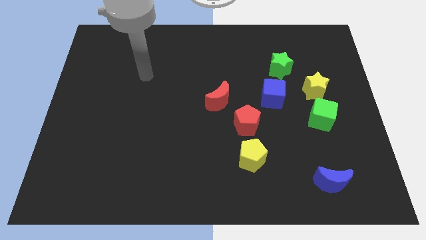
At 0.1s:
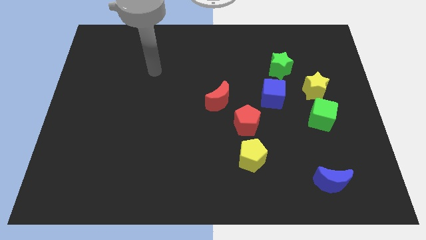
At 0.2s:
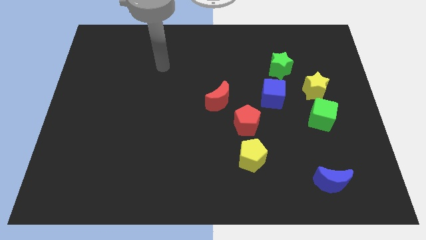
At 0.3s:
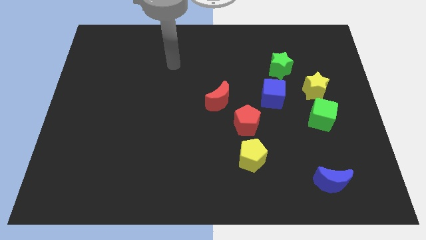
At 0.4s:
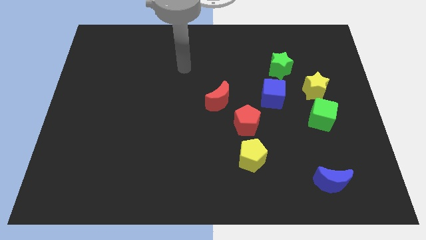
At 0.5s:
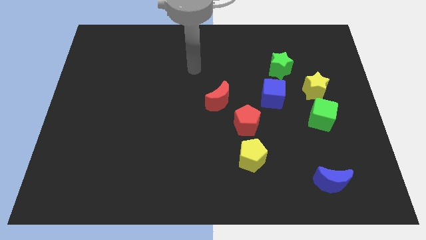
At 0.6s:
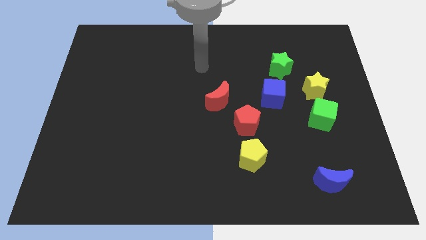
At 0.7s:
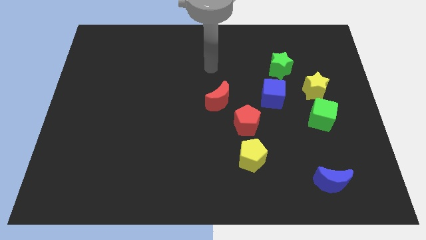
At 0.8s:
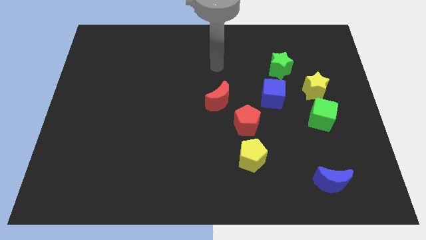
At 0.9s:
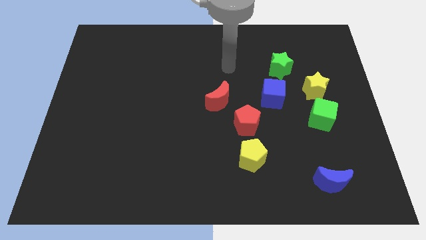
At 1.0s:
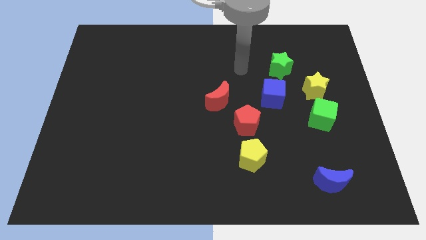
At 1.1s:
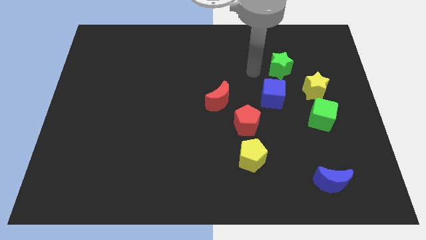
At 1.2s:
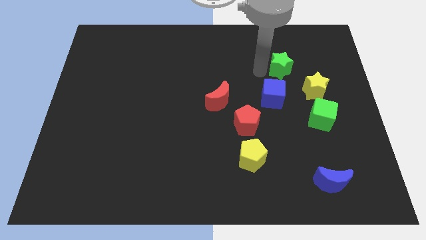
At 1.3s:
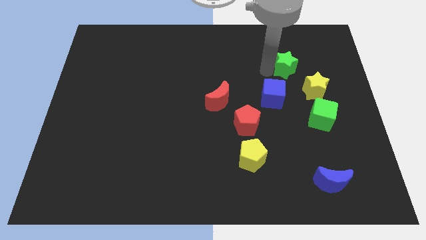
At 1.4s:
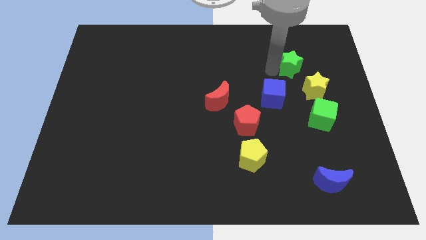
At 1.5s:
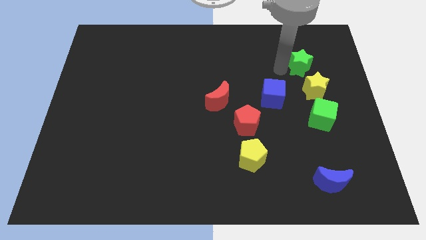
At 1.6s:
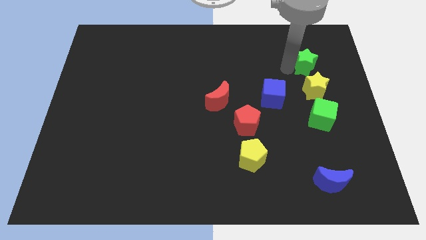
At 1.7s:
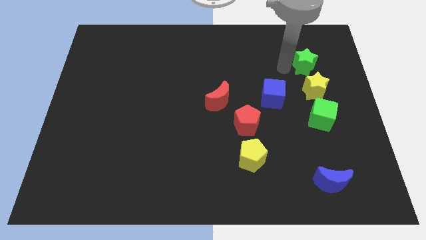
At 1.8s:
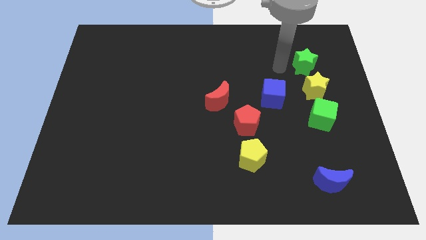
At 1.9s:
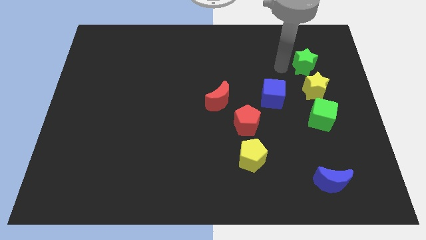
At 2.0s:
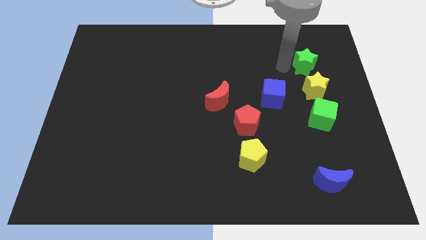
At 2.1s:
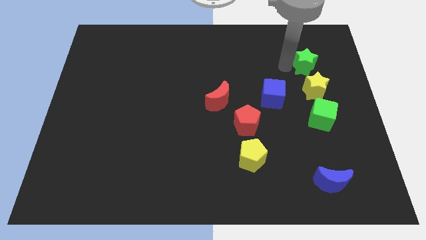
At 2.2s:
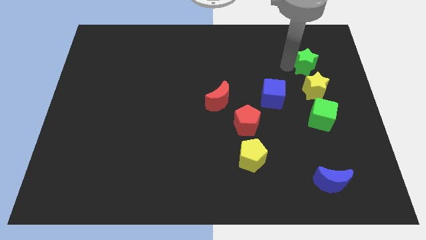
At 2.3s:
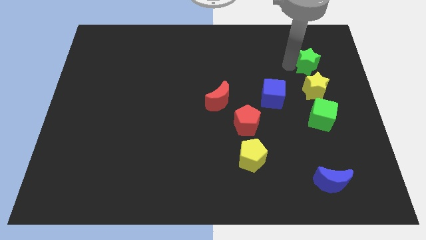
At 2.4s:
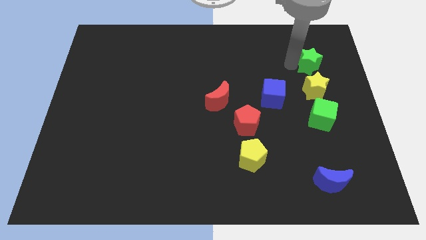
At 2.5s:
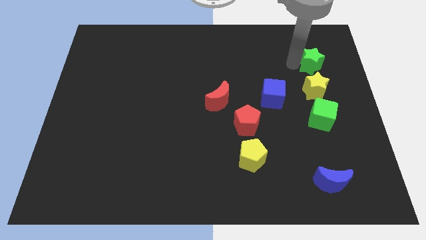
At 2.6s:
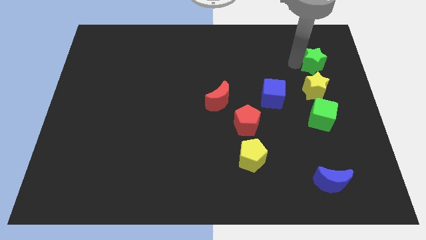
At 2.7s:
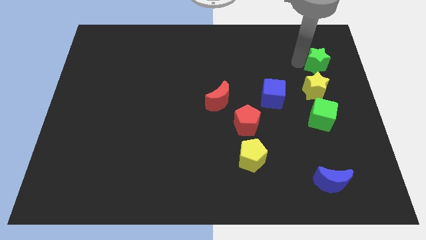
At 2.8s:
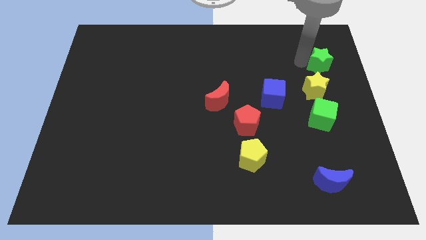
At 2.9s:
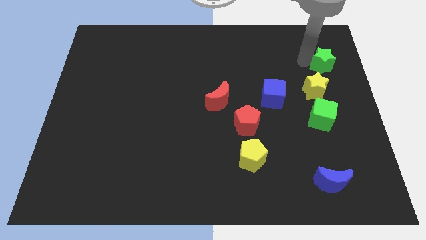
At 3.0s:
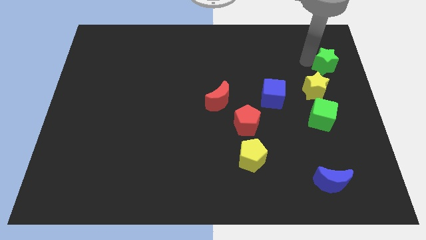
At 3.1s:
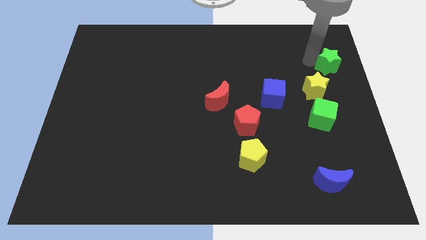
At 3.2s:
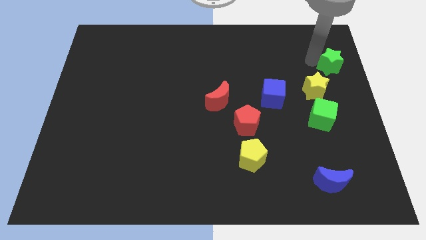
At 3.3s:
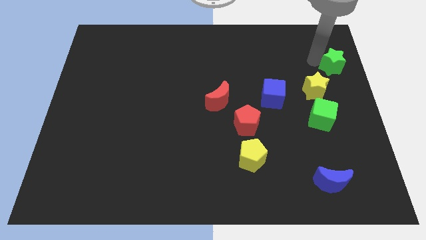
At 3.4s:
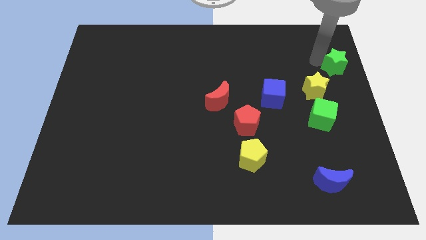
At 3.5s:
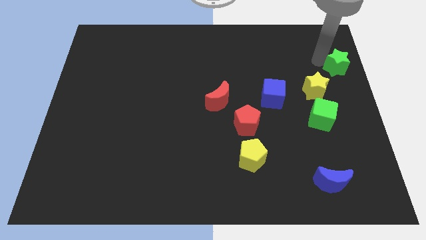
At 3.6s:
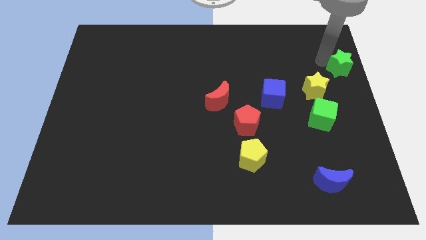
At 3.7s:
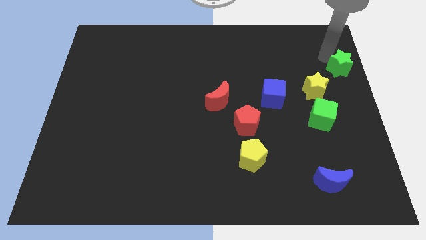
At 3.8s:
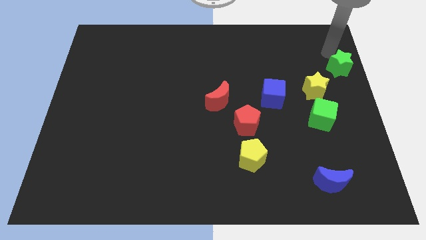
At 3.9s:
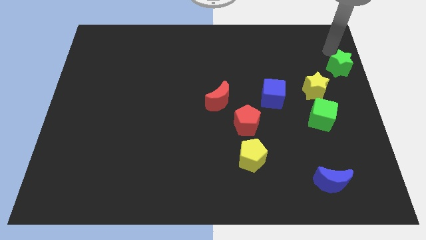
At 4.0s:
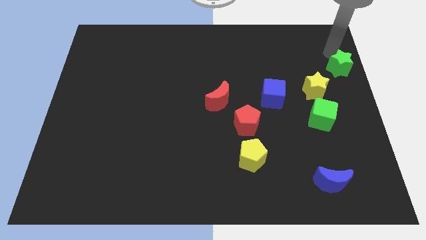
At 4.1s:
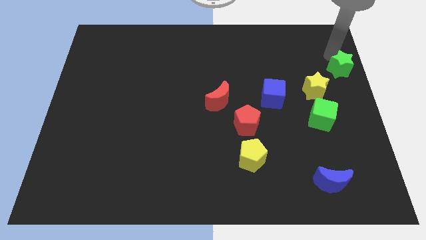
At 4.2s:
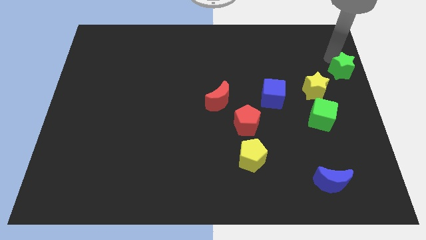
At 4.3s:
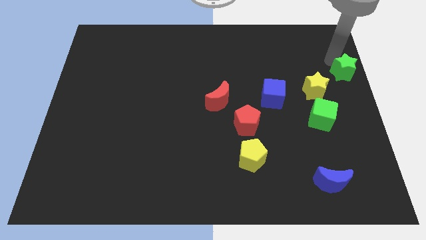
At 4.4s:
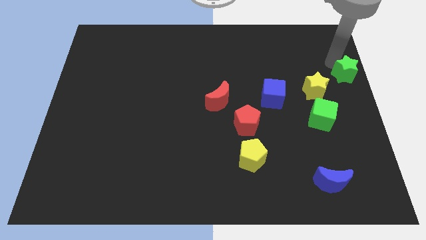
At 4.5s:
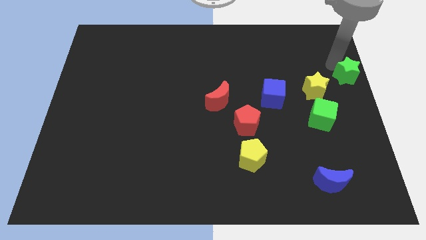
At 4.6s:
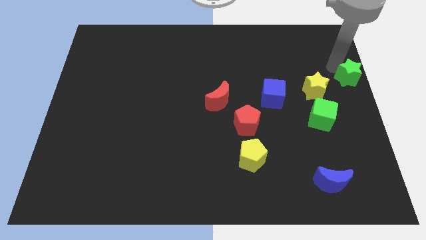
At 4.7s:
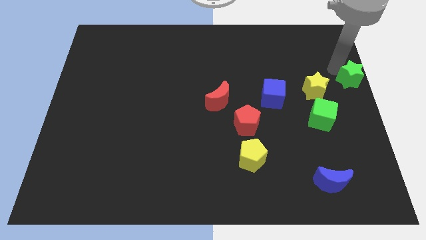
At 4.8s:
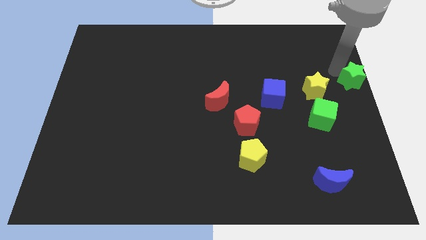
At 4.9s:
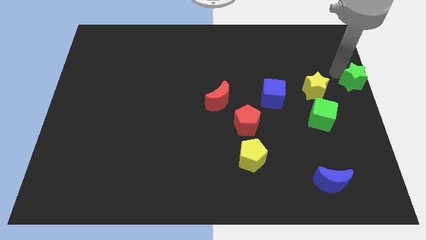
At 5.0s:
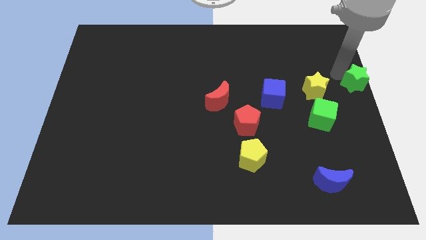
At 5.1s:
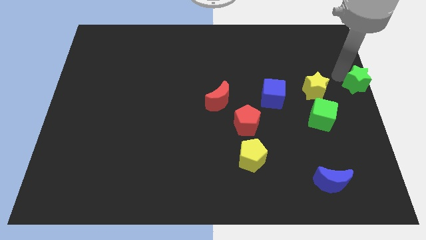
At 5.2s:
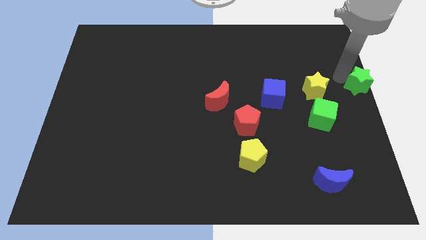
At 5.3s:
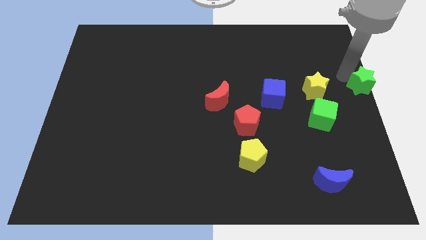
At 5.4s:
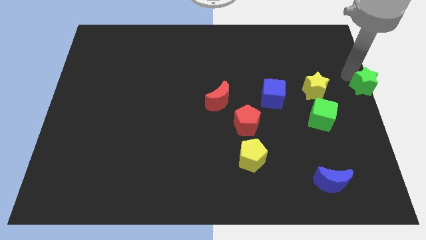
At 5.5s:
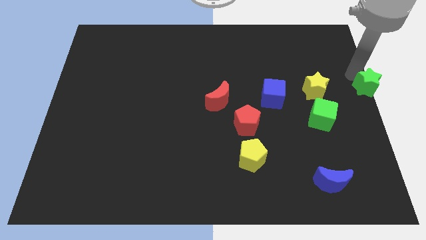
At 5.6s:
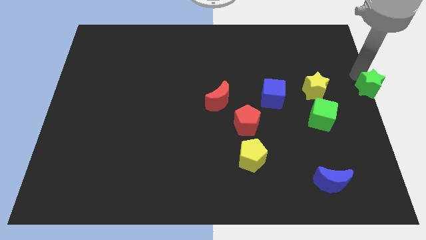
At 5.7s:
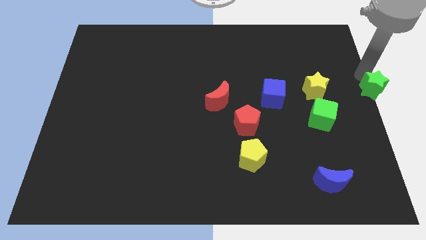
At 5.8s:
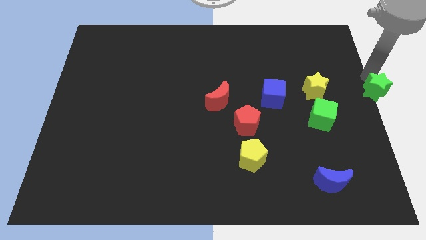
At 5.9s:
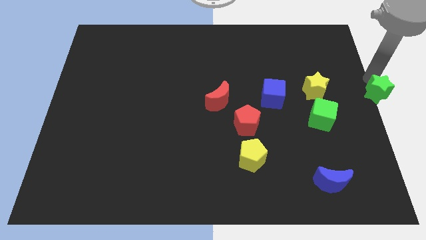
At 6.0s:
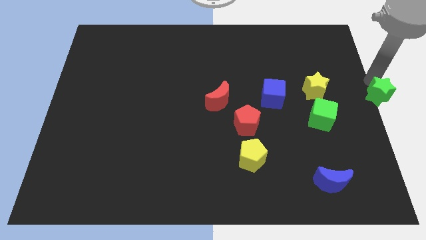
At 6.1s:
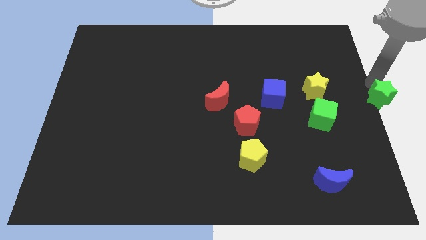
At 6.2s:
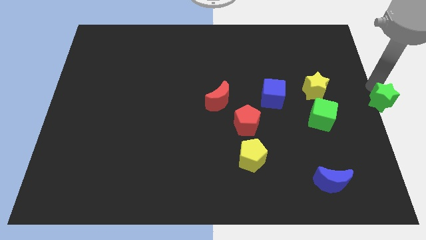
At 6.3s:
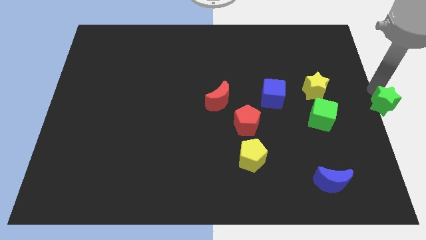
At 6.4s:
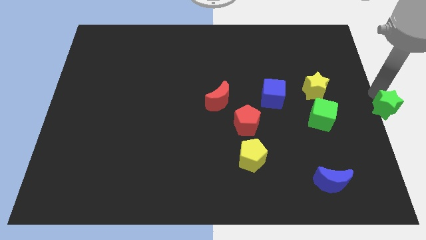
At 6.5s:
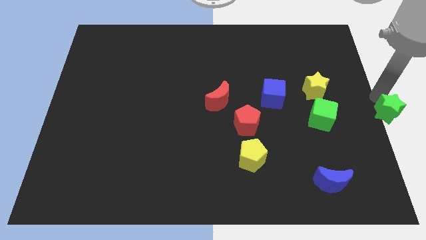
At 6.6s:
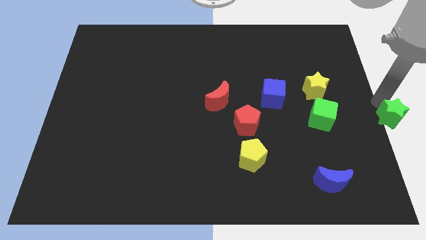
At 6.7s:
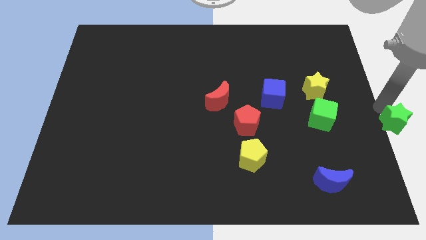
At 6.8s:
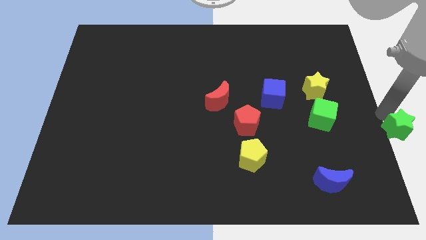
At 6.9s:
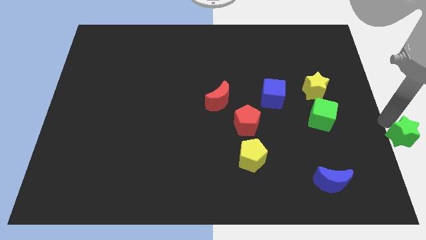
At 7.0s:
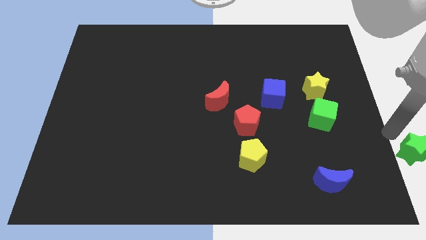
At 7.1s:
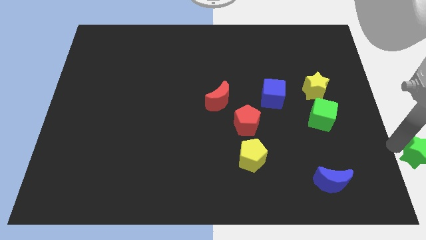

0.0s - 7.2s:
push the green star to the lower right corner
